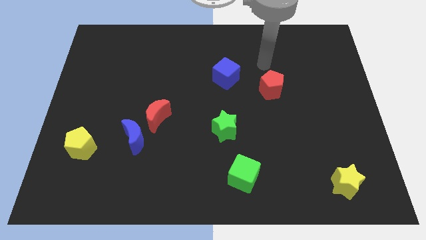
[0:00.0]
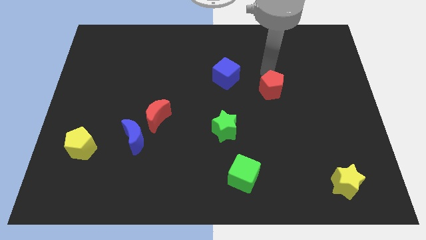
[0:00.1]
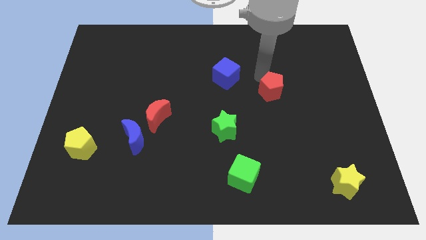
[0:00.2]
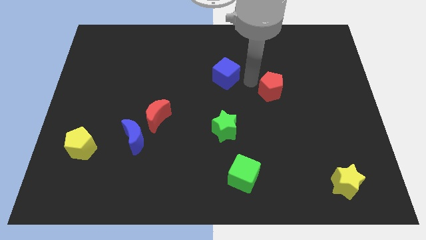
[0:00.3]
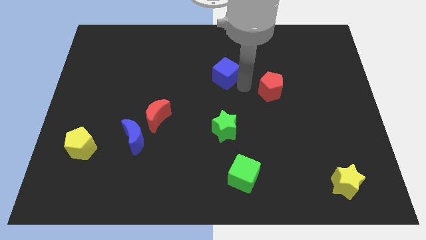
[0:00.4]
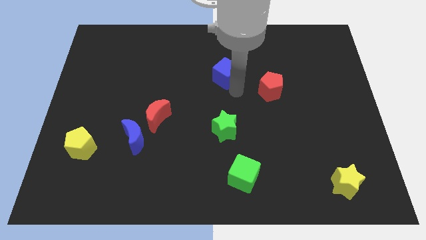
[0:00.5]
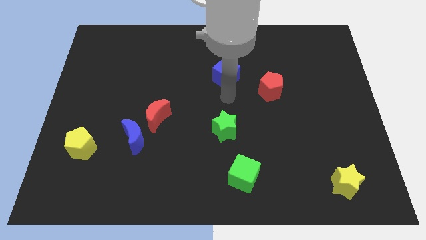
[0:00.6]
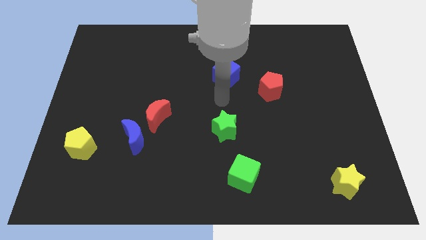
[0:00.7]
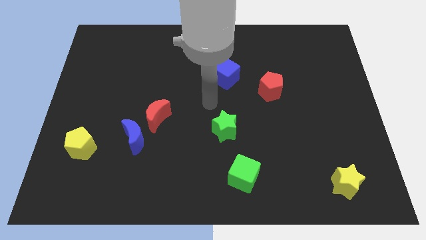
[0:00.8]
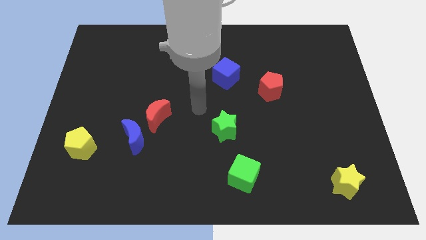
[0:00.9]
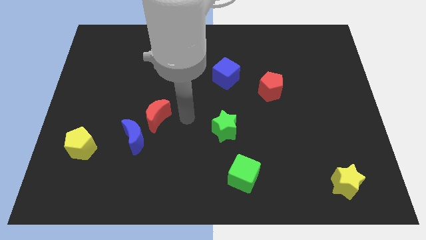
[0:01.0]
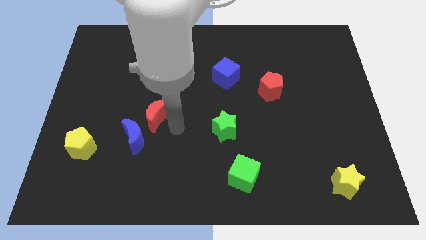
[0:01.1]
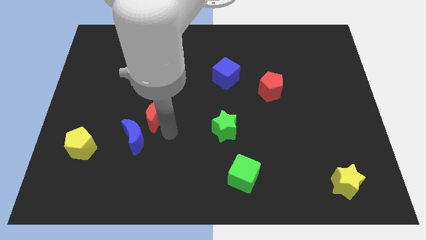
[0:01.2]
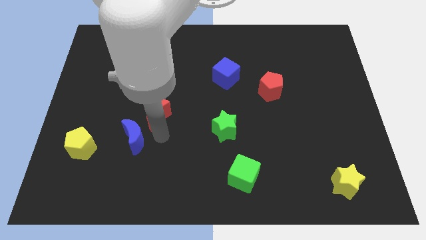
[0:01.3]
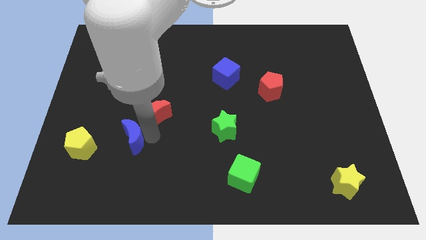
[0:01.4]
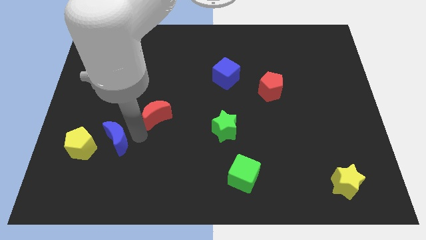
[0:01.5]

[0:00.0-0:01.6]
move the red moon away from the blue moon

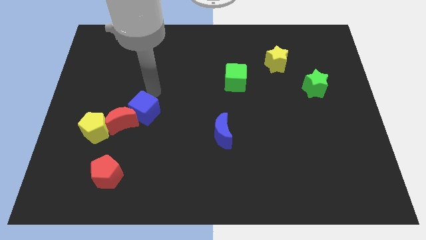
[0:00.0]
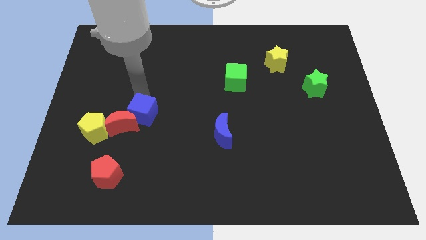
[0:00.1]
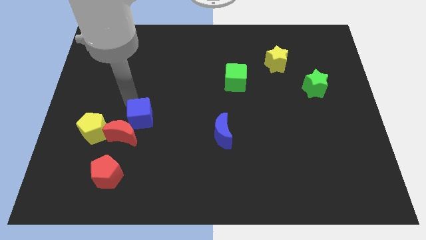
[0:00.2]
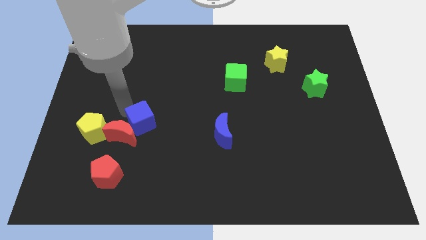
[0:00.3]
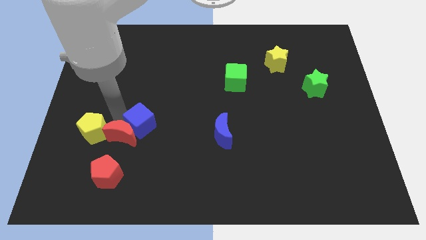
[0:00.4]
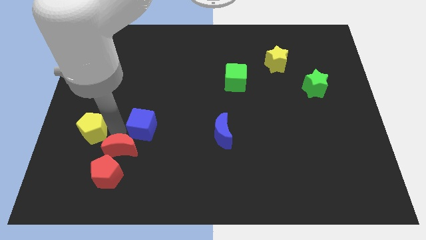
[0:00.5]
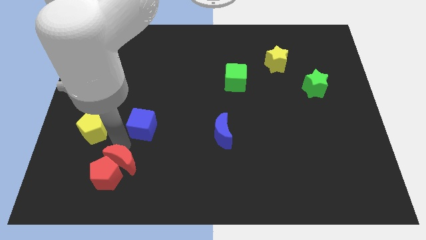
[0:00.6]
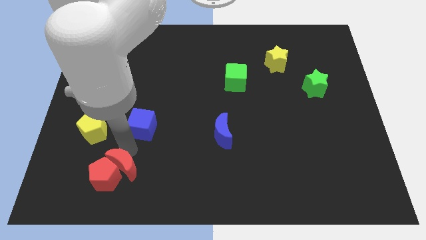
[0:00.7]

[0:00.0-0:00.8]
separate the blue cube from the red moon

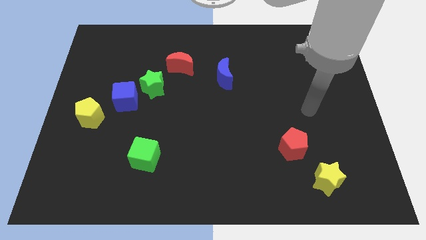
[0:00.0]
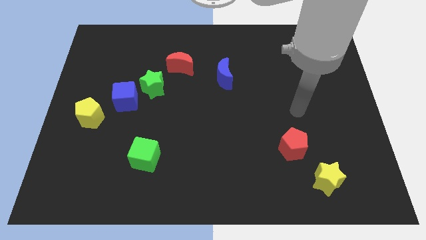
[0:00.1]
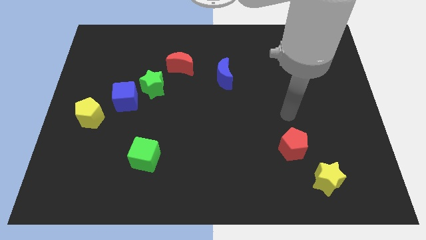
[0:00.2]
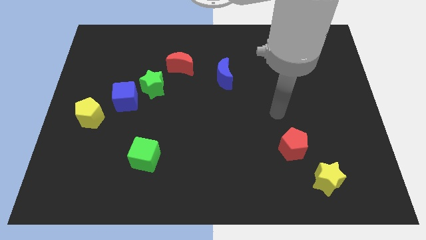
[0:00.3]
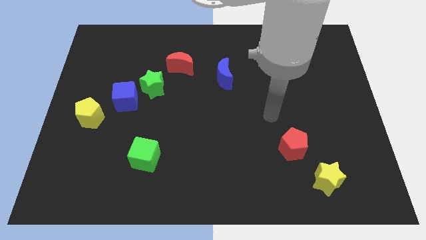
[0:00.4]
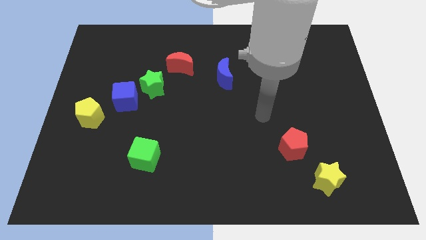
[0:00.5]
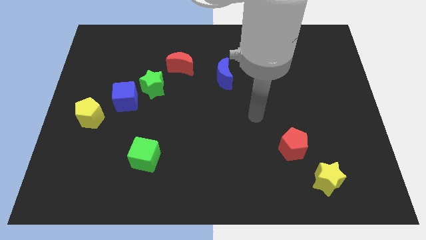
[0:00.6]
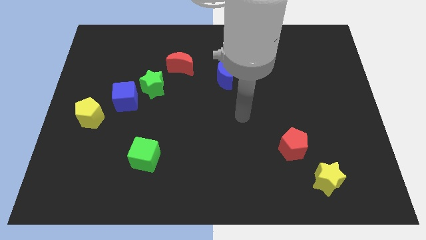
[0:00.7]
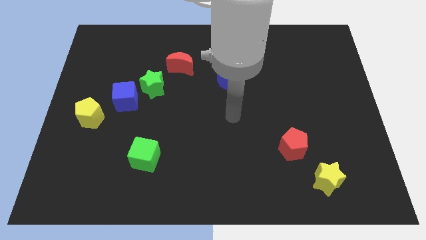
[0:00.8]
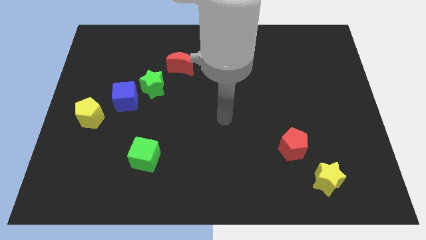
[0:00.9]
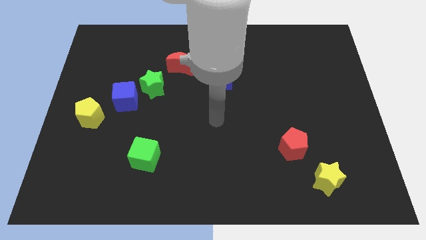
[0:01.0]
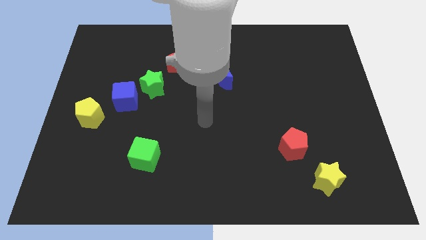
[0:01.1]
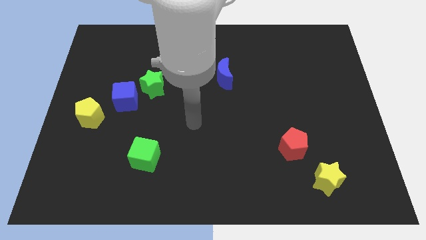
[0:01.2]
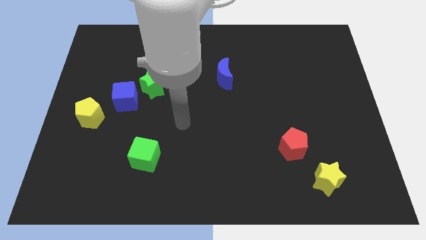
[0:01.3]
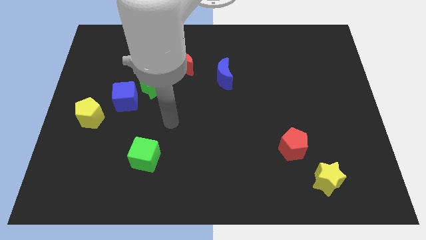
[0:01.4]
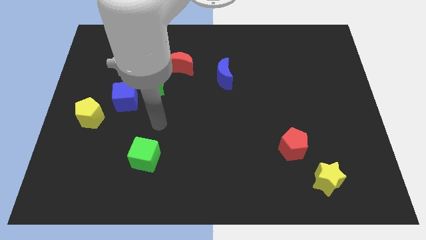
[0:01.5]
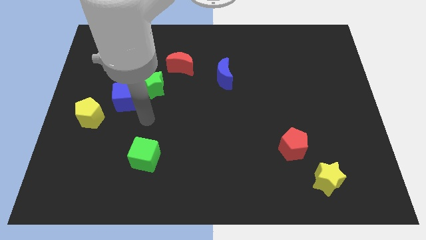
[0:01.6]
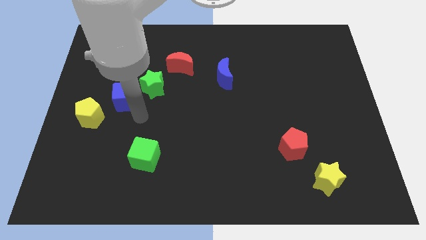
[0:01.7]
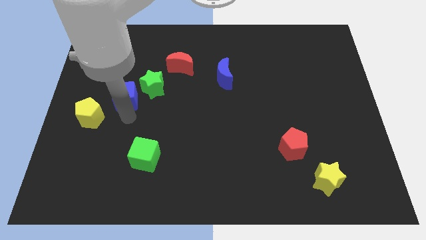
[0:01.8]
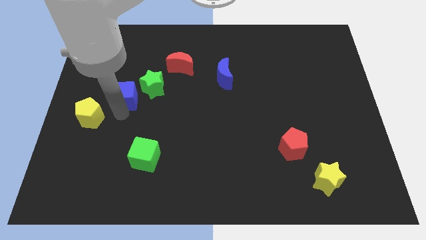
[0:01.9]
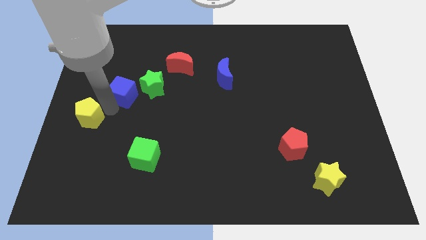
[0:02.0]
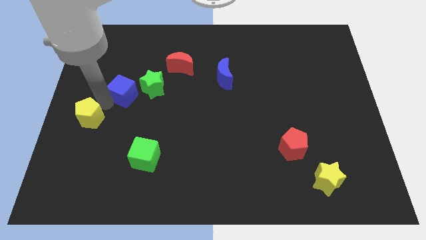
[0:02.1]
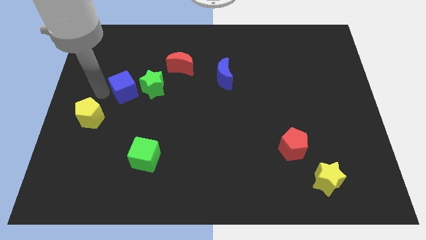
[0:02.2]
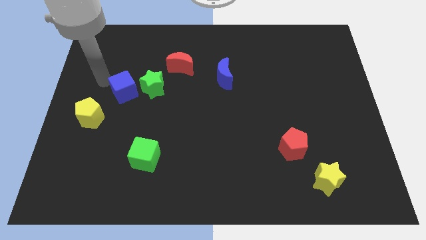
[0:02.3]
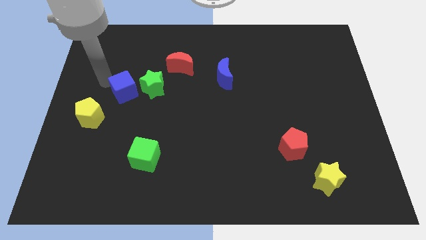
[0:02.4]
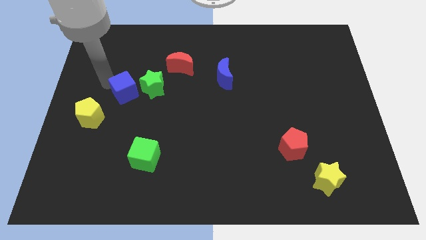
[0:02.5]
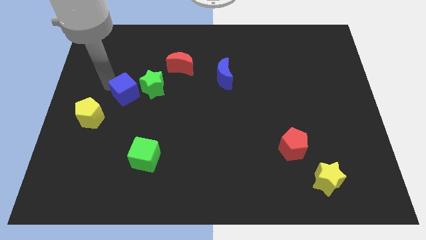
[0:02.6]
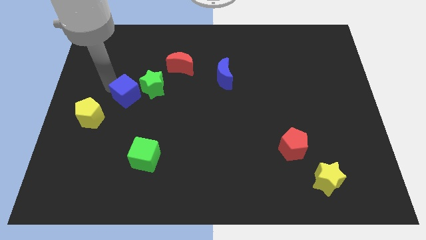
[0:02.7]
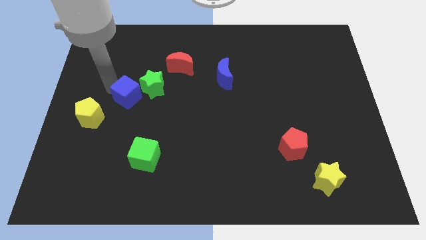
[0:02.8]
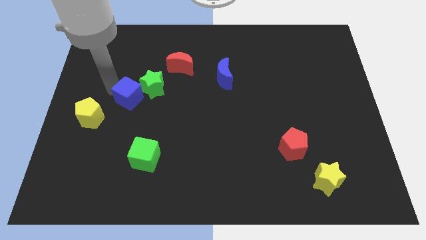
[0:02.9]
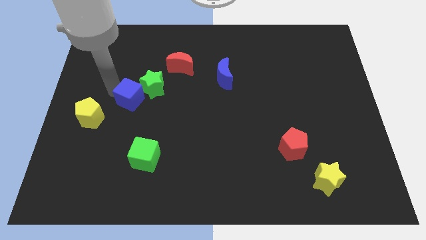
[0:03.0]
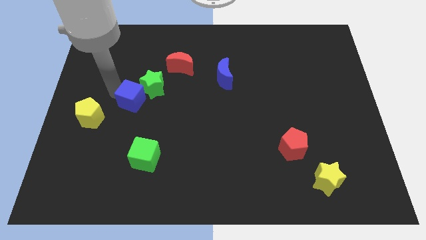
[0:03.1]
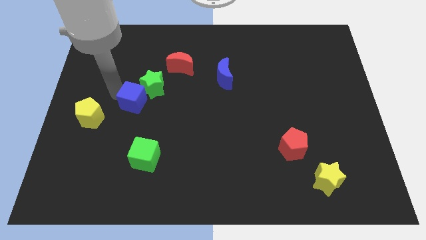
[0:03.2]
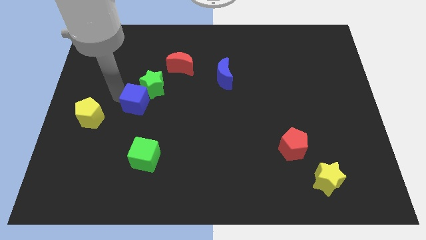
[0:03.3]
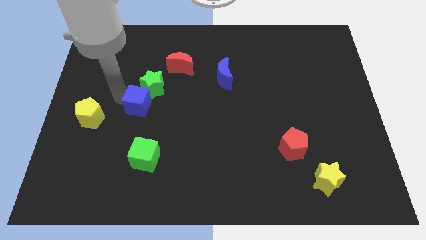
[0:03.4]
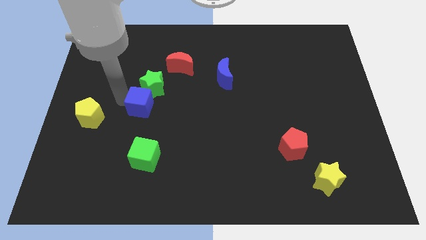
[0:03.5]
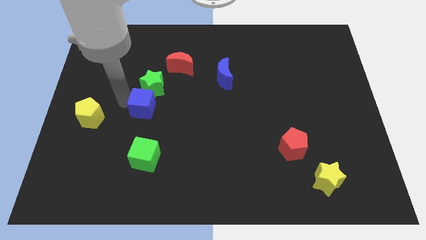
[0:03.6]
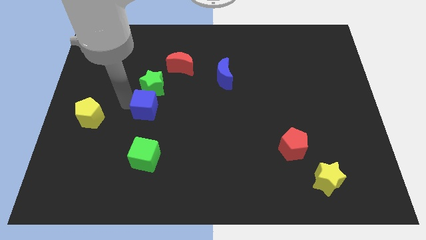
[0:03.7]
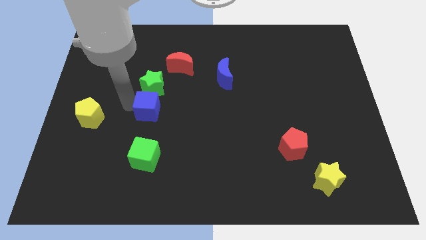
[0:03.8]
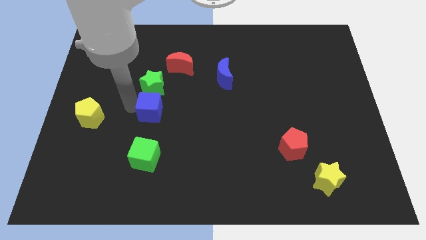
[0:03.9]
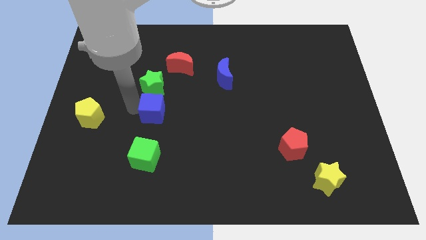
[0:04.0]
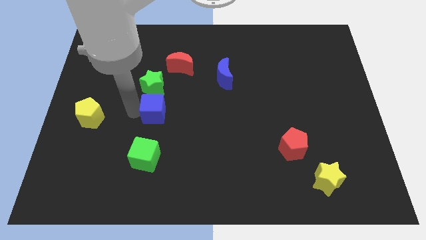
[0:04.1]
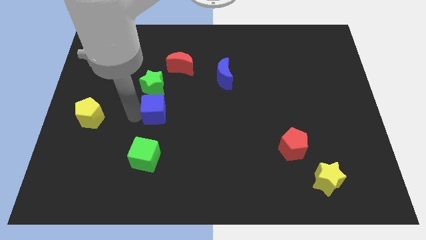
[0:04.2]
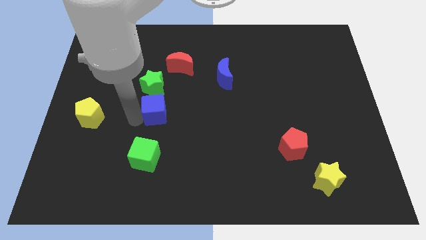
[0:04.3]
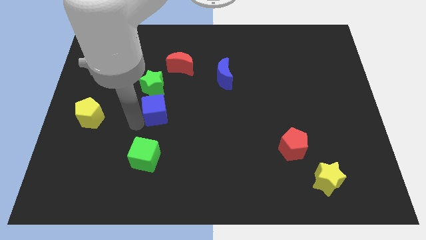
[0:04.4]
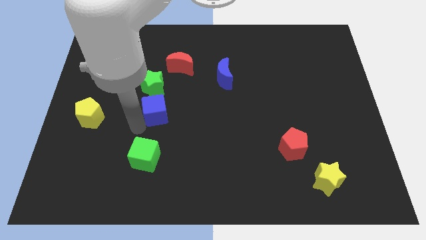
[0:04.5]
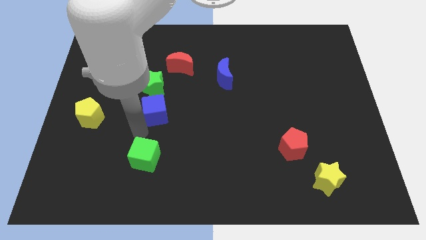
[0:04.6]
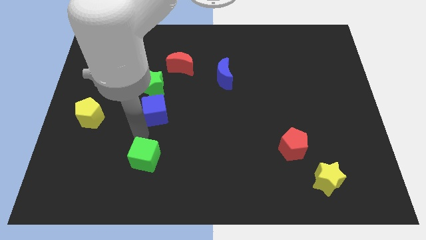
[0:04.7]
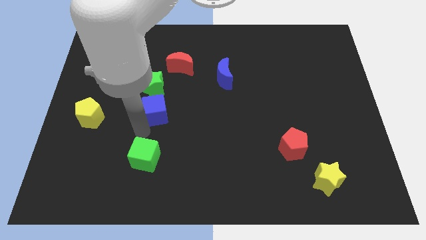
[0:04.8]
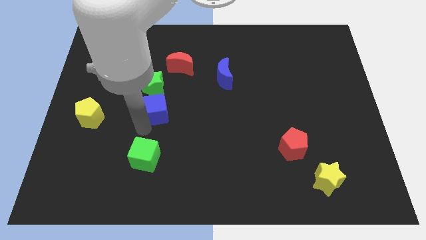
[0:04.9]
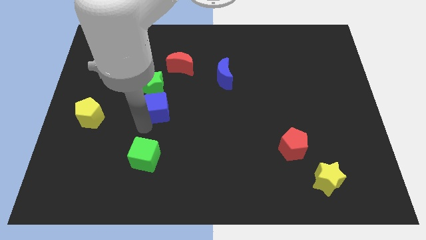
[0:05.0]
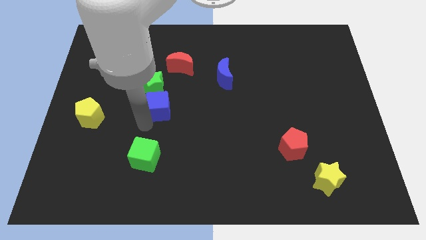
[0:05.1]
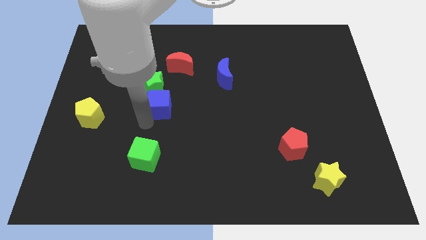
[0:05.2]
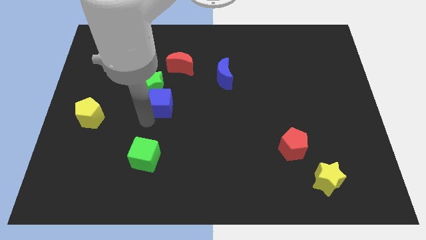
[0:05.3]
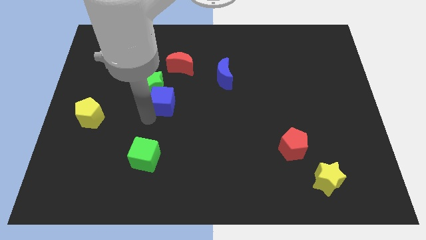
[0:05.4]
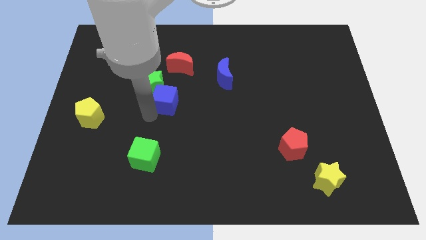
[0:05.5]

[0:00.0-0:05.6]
pull the blue cube apart from the green star and yellow pentagon

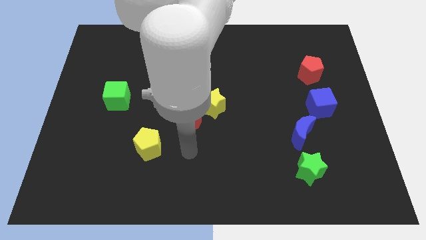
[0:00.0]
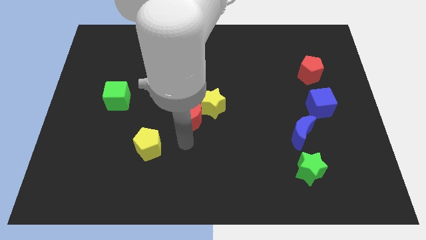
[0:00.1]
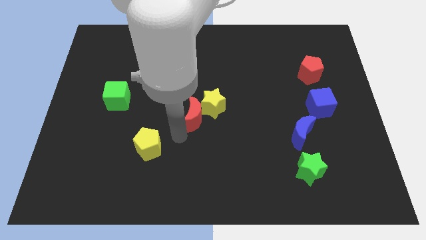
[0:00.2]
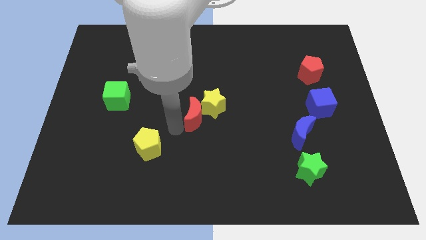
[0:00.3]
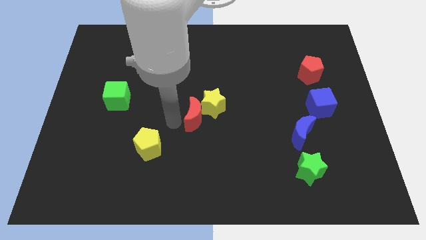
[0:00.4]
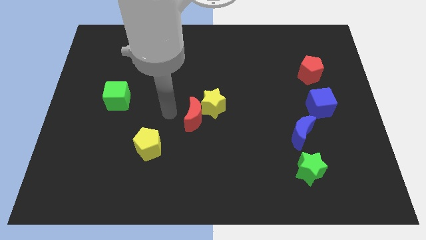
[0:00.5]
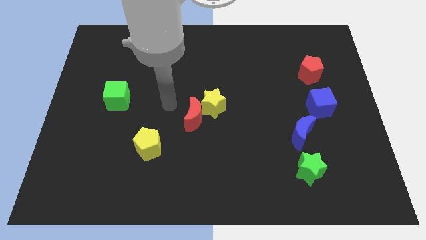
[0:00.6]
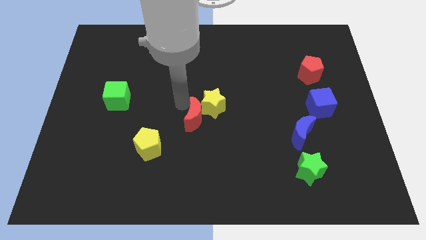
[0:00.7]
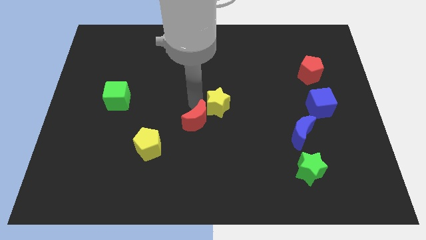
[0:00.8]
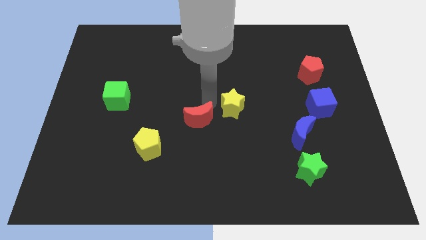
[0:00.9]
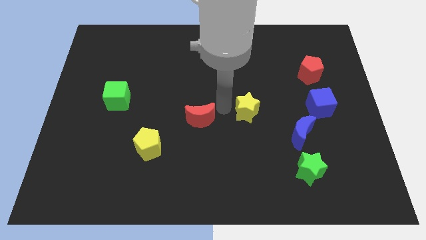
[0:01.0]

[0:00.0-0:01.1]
separate the red moon from the yellow star

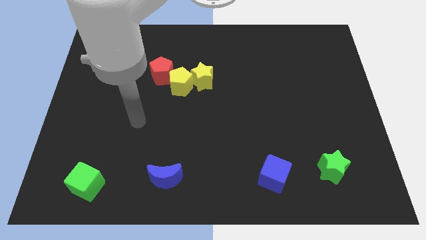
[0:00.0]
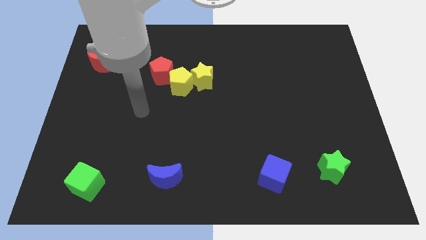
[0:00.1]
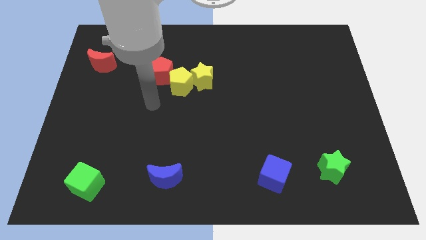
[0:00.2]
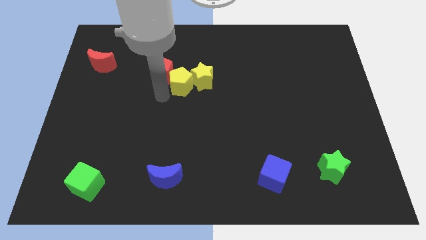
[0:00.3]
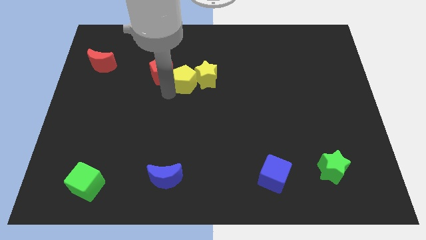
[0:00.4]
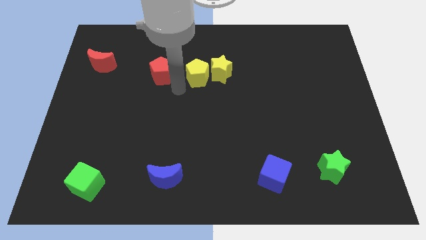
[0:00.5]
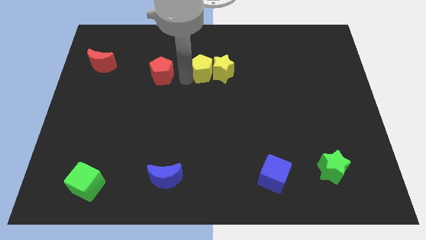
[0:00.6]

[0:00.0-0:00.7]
pull the red pentagon apart from the yellow pentagon
